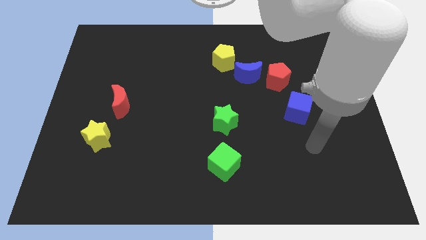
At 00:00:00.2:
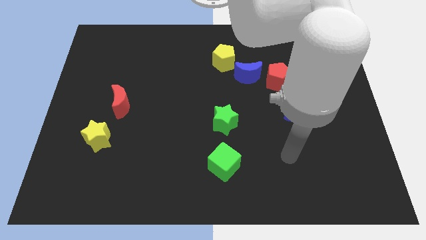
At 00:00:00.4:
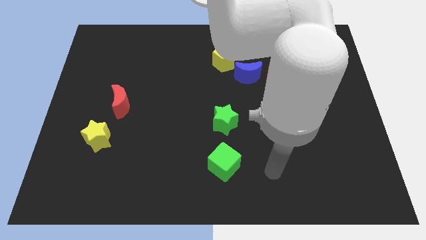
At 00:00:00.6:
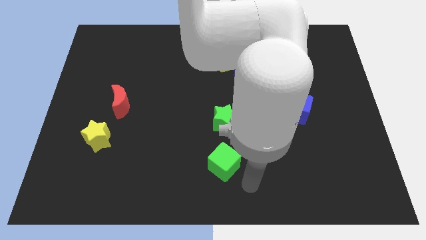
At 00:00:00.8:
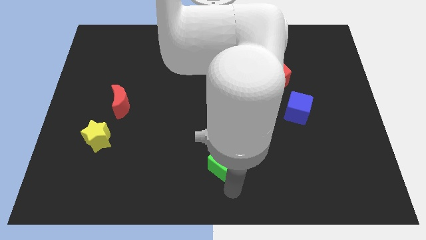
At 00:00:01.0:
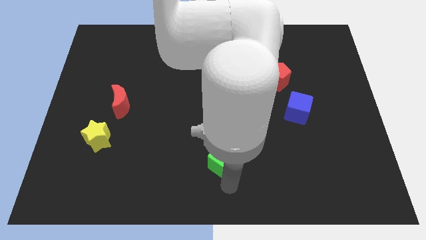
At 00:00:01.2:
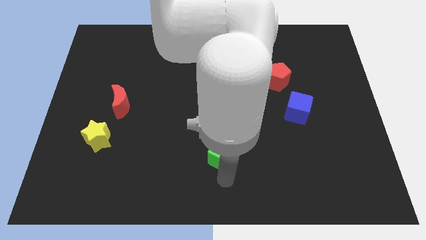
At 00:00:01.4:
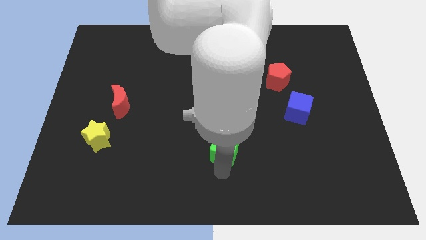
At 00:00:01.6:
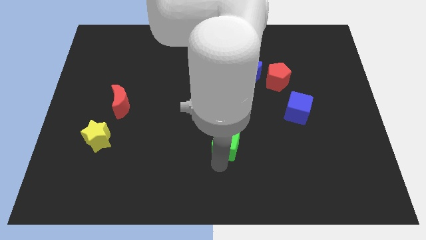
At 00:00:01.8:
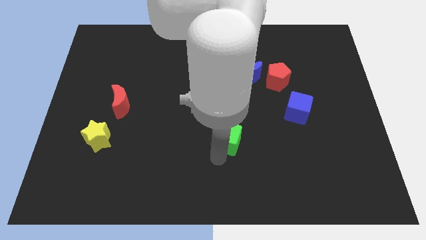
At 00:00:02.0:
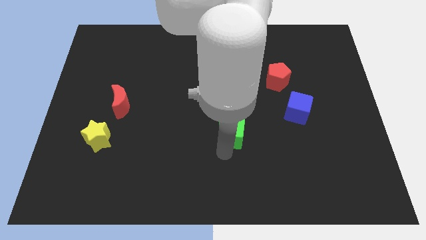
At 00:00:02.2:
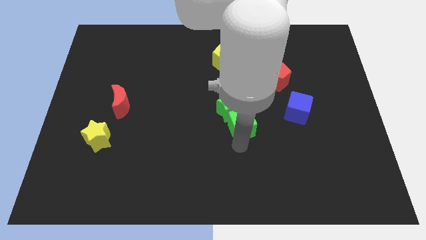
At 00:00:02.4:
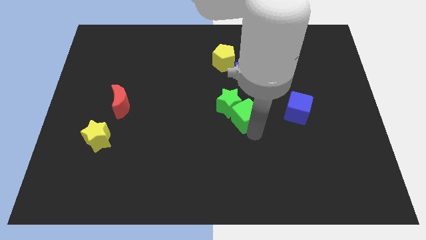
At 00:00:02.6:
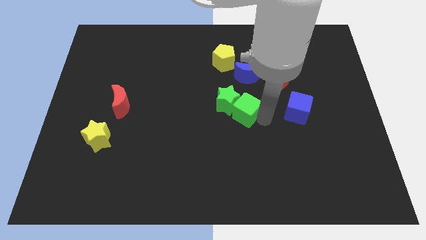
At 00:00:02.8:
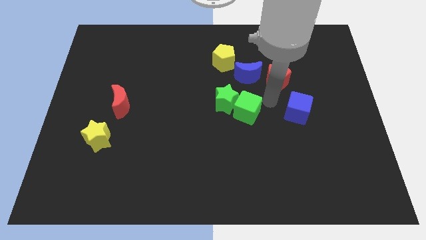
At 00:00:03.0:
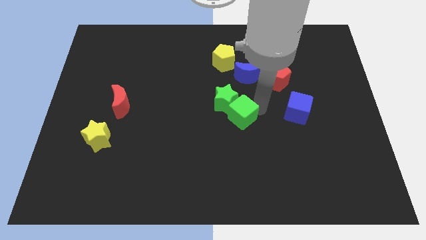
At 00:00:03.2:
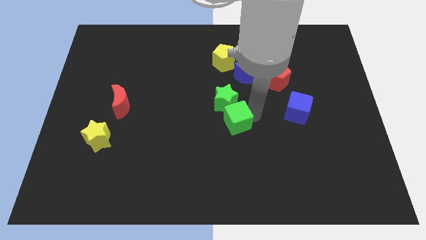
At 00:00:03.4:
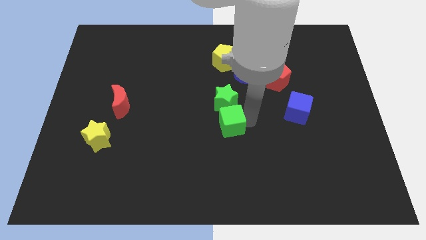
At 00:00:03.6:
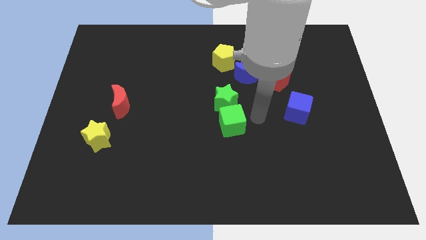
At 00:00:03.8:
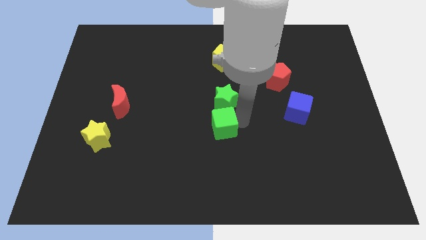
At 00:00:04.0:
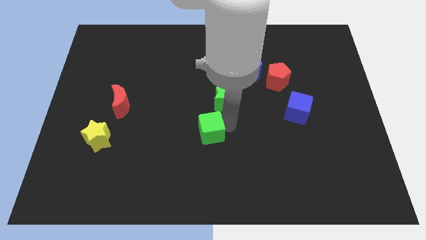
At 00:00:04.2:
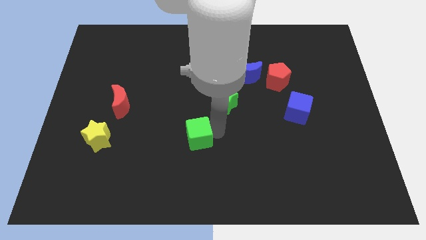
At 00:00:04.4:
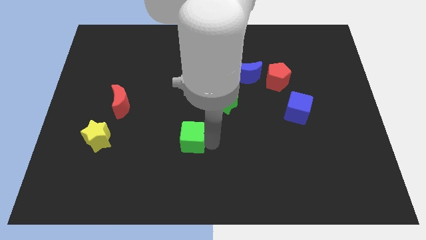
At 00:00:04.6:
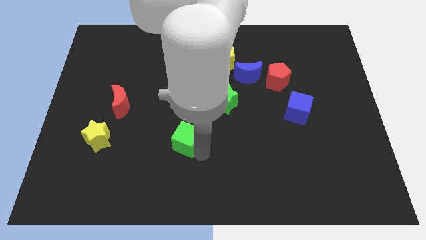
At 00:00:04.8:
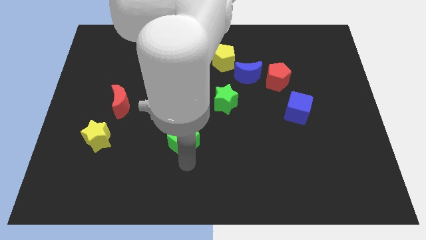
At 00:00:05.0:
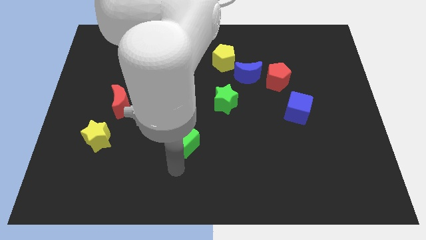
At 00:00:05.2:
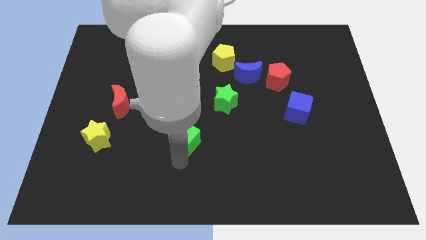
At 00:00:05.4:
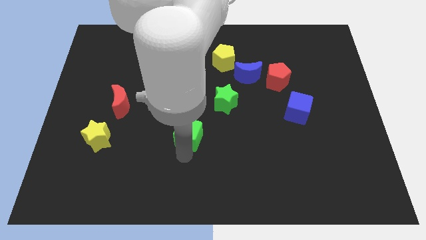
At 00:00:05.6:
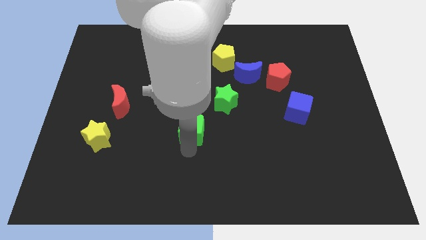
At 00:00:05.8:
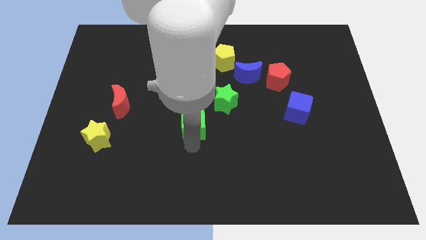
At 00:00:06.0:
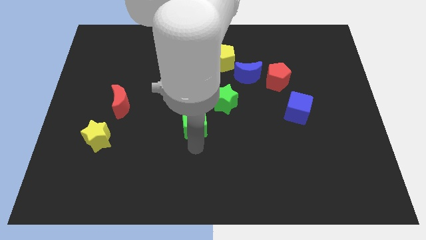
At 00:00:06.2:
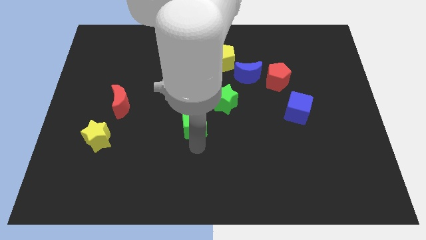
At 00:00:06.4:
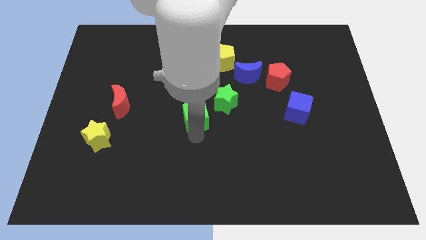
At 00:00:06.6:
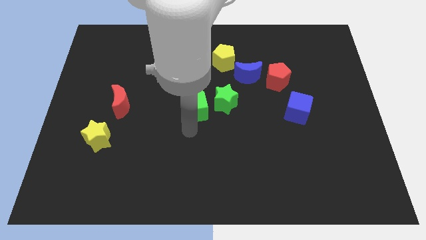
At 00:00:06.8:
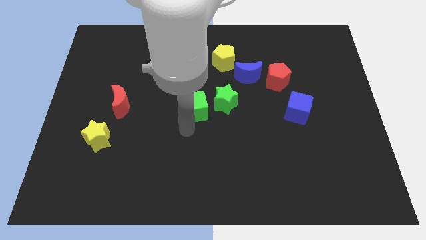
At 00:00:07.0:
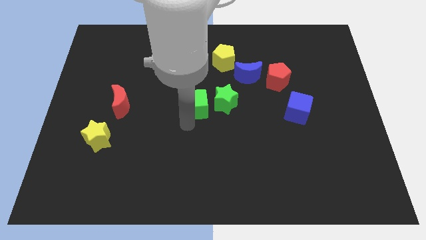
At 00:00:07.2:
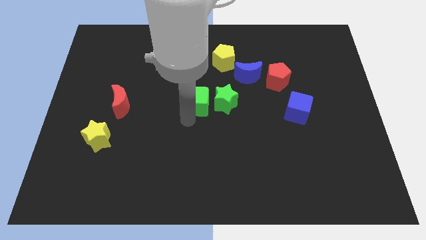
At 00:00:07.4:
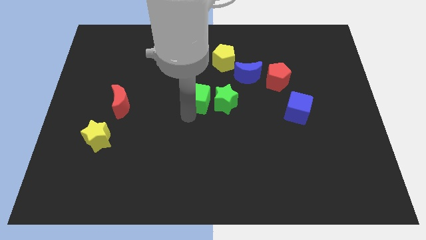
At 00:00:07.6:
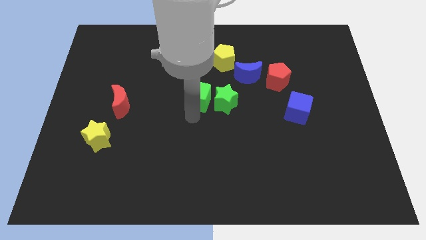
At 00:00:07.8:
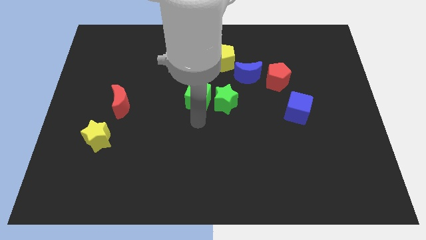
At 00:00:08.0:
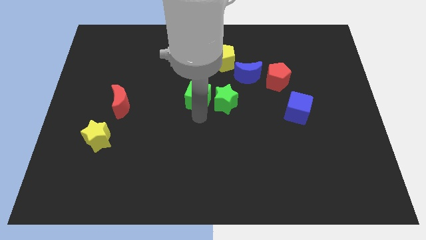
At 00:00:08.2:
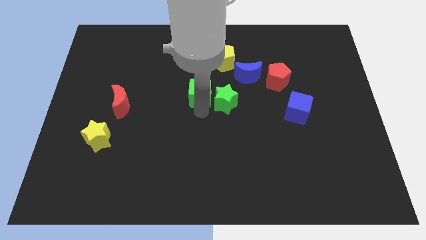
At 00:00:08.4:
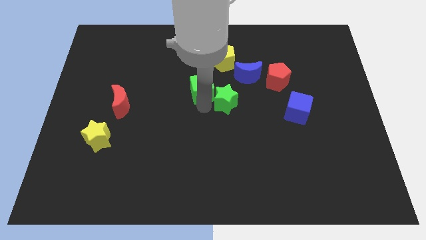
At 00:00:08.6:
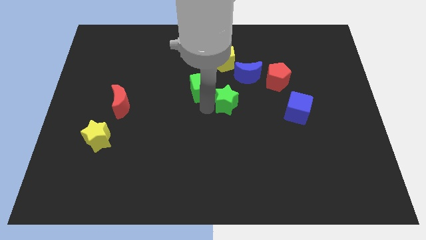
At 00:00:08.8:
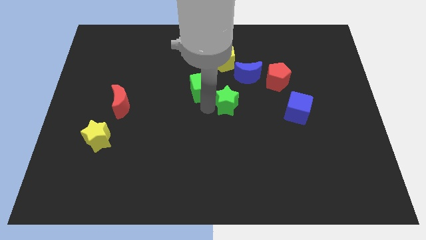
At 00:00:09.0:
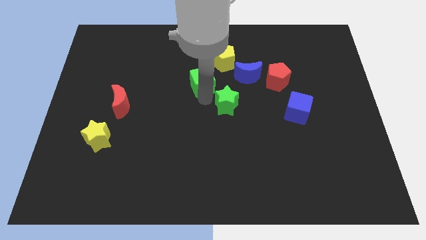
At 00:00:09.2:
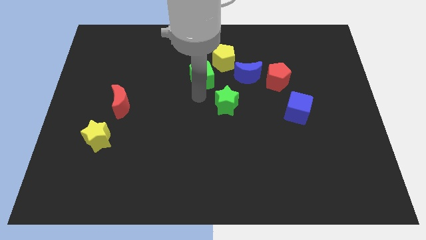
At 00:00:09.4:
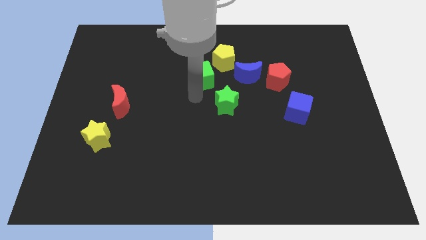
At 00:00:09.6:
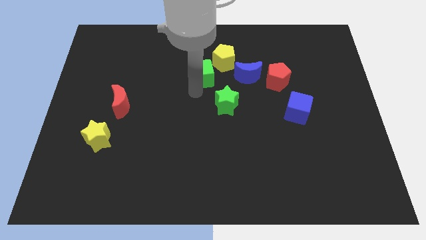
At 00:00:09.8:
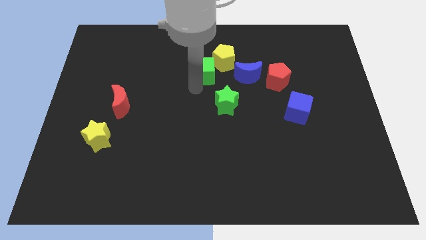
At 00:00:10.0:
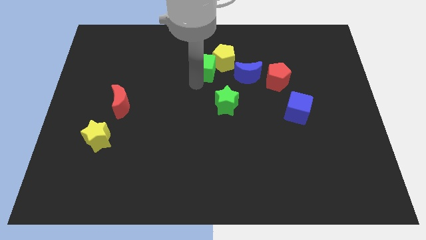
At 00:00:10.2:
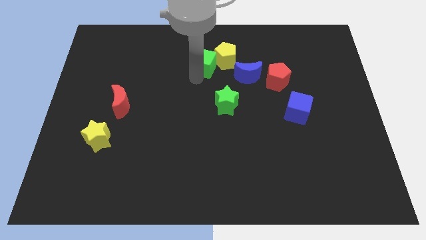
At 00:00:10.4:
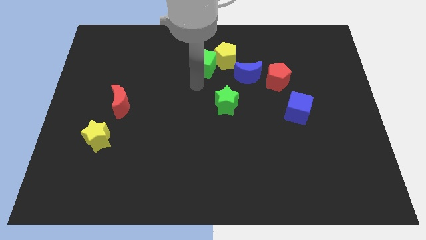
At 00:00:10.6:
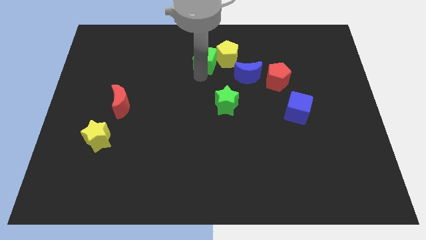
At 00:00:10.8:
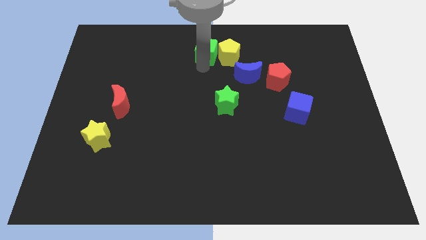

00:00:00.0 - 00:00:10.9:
put the green cube to the towards your base

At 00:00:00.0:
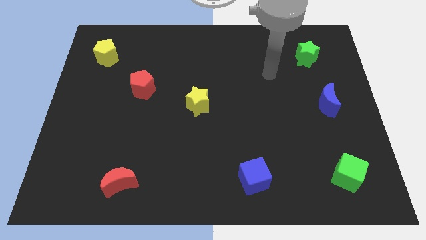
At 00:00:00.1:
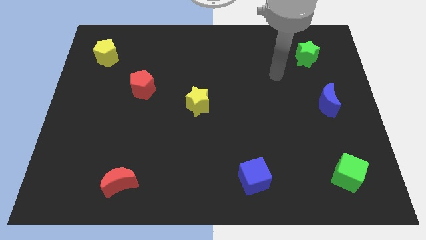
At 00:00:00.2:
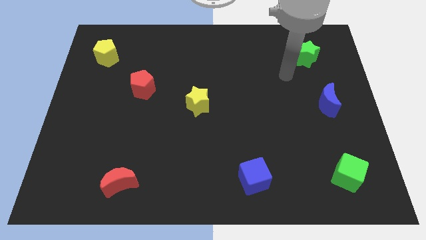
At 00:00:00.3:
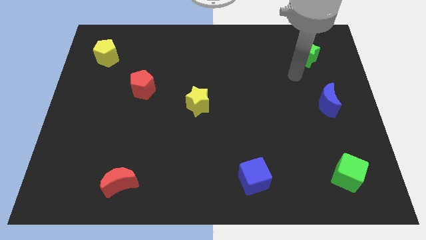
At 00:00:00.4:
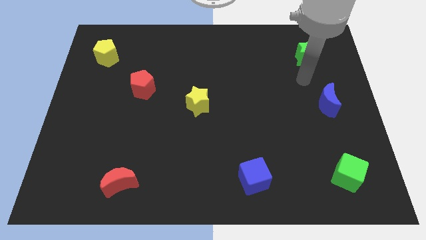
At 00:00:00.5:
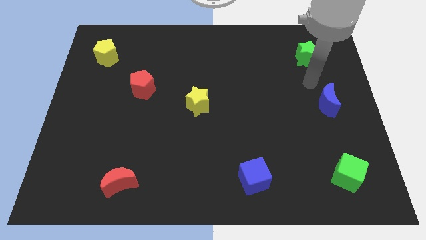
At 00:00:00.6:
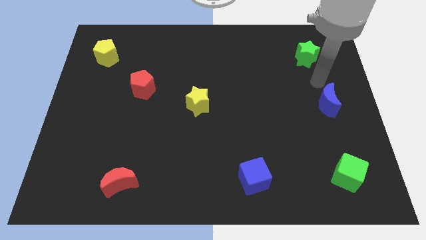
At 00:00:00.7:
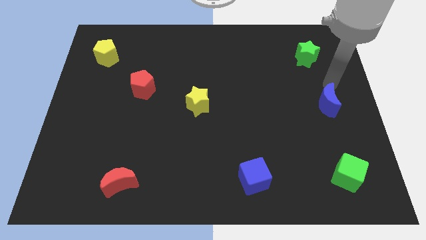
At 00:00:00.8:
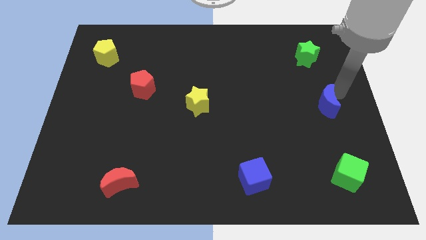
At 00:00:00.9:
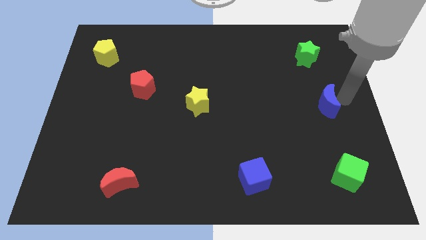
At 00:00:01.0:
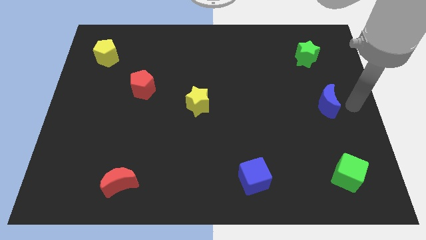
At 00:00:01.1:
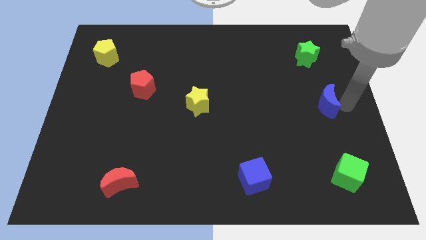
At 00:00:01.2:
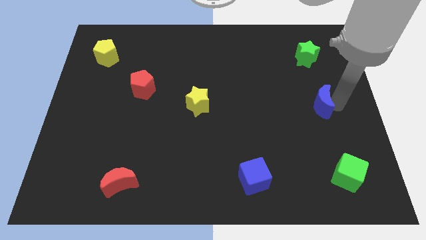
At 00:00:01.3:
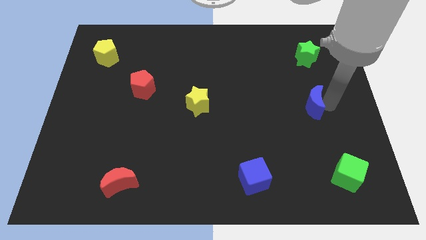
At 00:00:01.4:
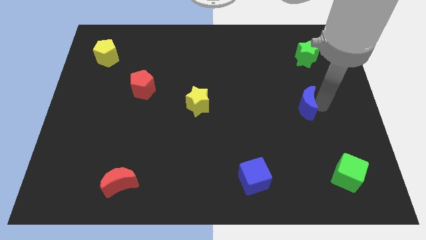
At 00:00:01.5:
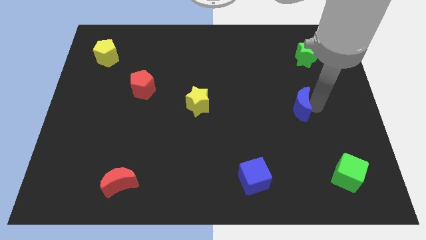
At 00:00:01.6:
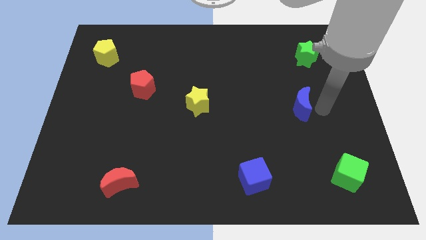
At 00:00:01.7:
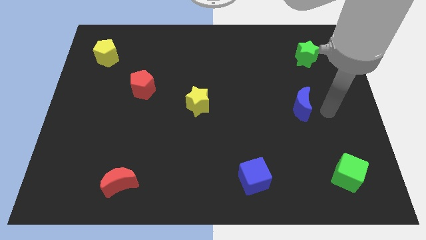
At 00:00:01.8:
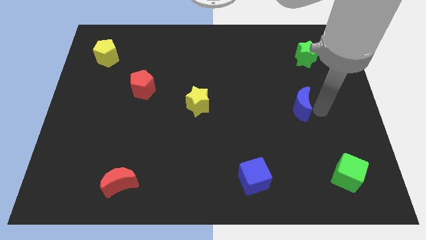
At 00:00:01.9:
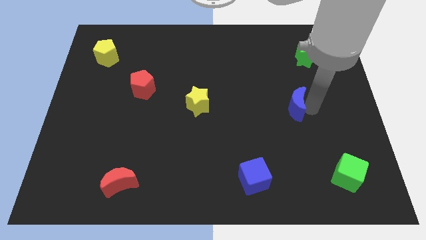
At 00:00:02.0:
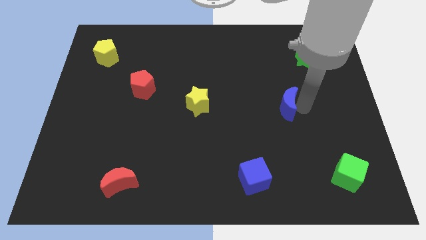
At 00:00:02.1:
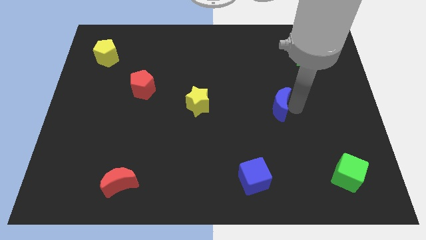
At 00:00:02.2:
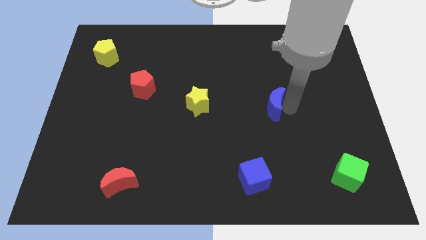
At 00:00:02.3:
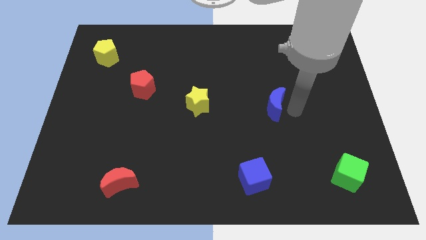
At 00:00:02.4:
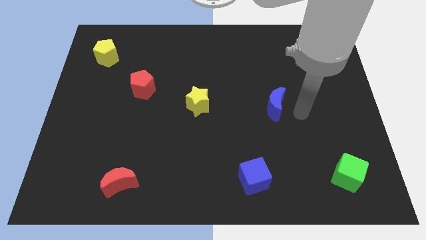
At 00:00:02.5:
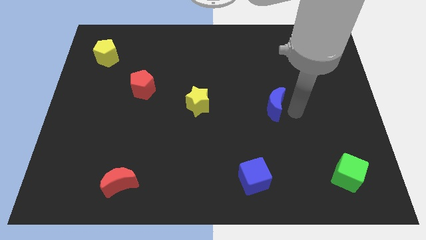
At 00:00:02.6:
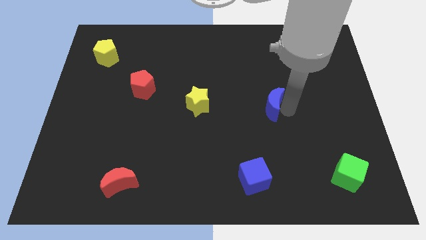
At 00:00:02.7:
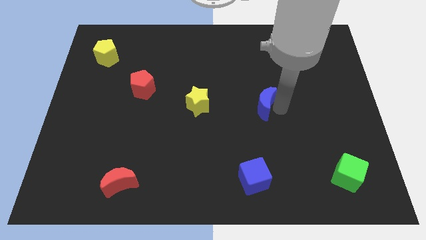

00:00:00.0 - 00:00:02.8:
move the blue moon to the center of the board
